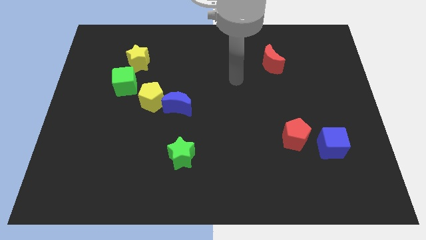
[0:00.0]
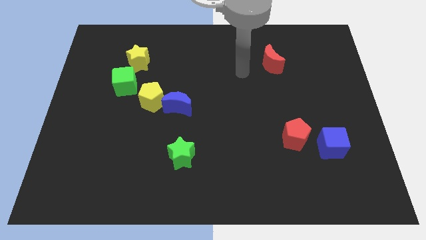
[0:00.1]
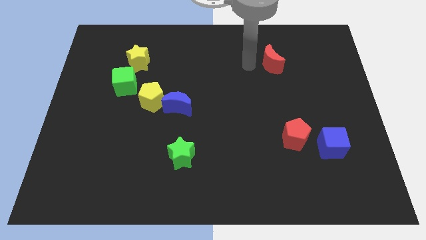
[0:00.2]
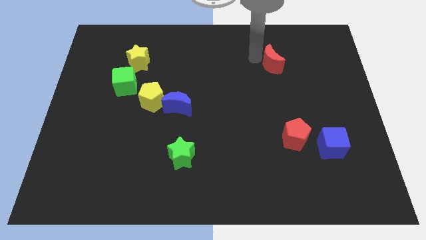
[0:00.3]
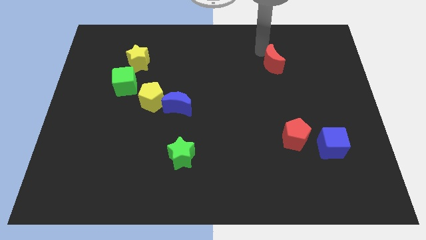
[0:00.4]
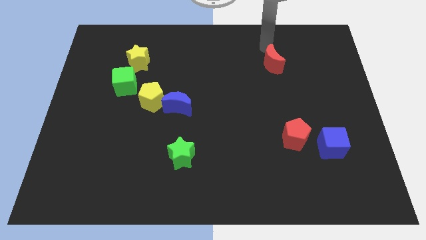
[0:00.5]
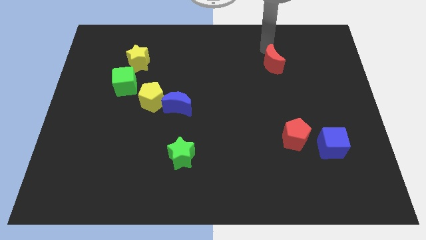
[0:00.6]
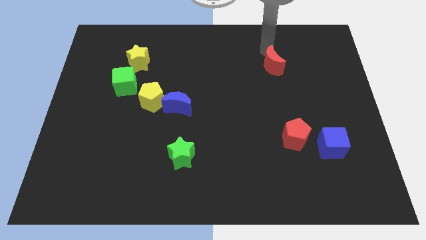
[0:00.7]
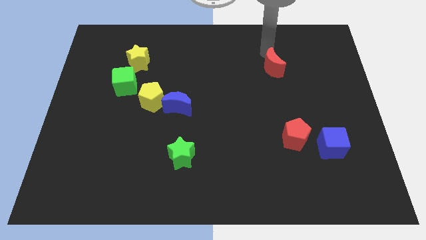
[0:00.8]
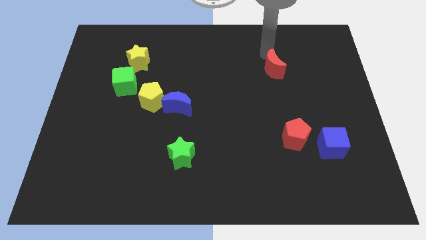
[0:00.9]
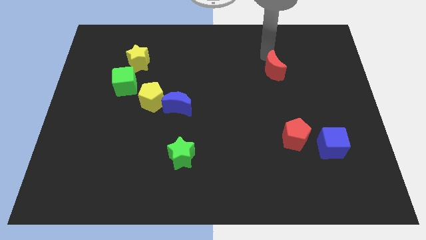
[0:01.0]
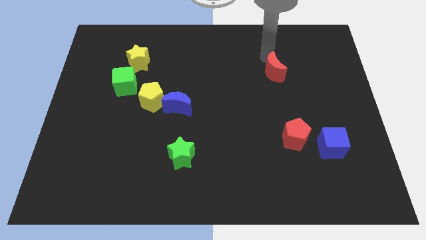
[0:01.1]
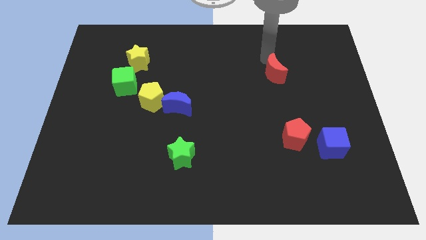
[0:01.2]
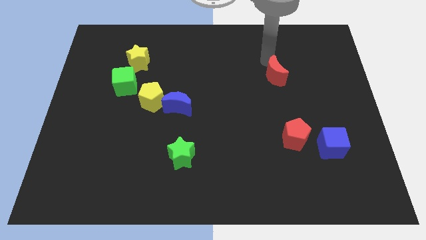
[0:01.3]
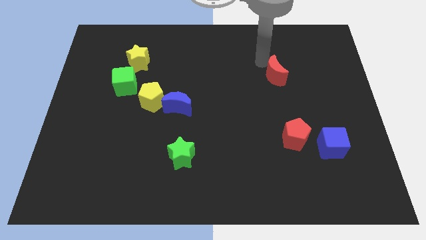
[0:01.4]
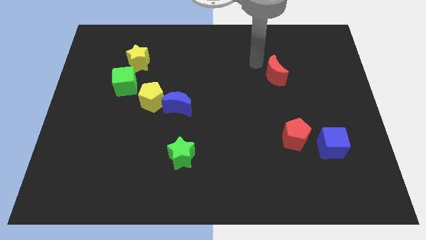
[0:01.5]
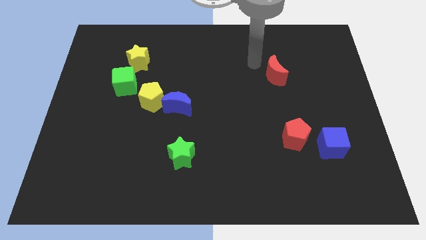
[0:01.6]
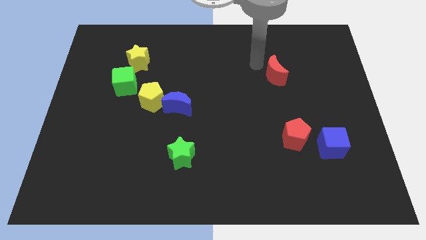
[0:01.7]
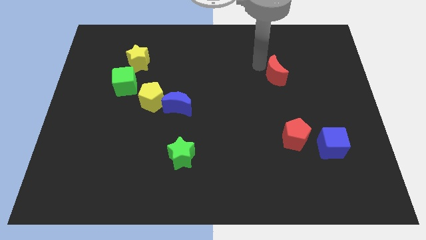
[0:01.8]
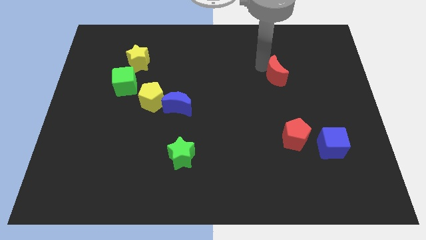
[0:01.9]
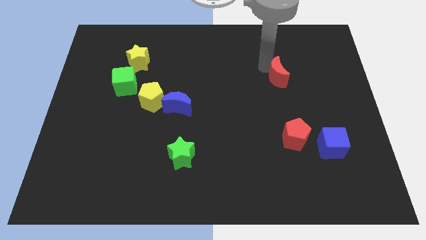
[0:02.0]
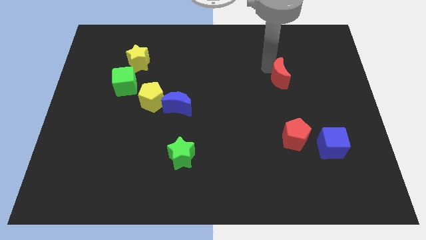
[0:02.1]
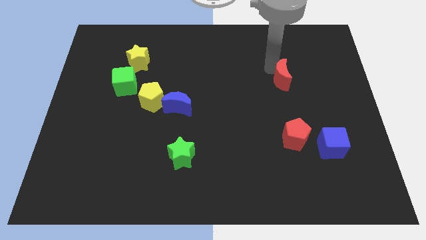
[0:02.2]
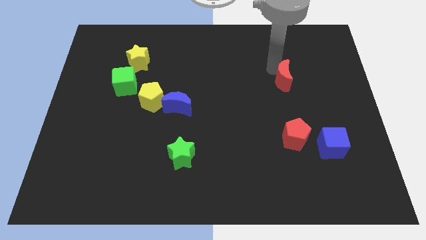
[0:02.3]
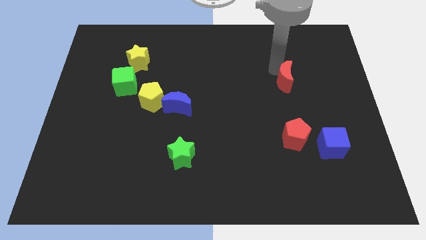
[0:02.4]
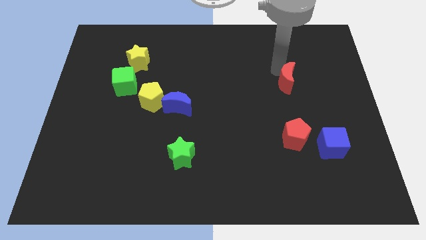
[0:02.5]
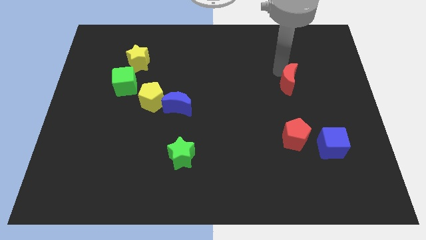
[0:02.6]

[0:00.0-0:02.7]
move the red moon down and then right a bit

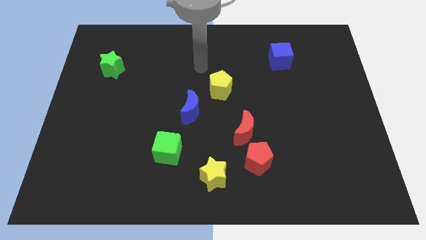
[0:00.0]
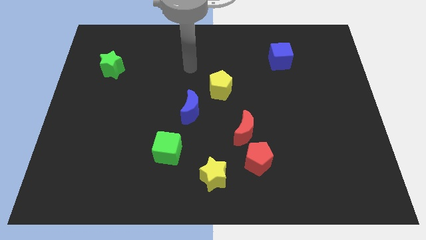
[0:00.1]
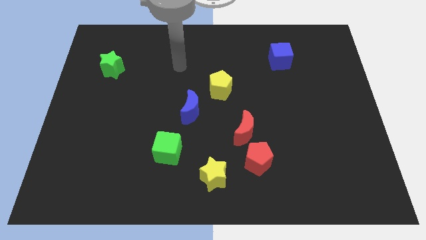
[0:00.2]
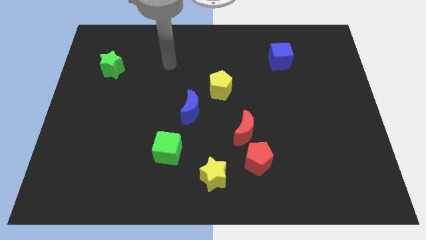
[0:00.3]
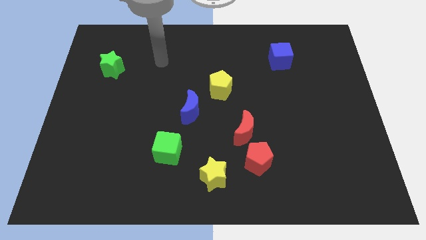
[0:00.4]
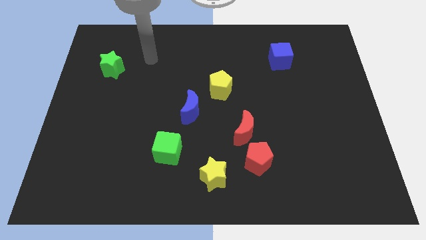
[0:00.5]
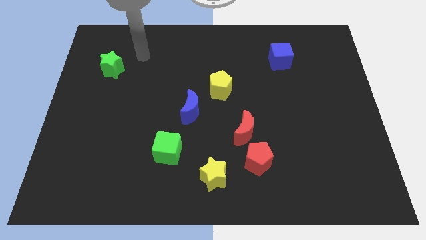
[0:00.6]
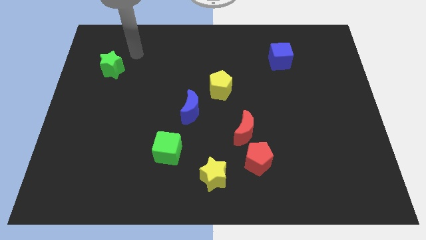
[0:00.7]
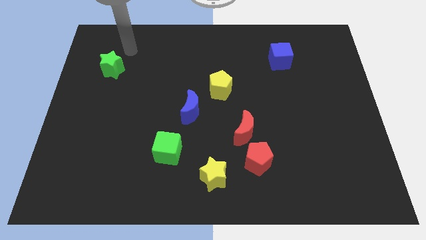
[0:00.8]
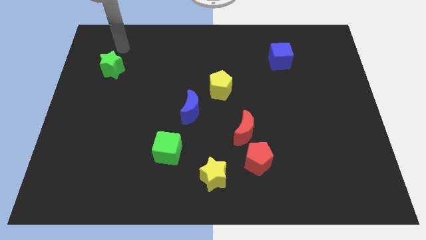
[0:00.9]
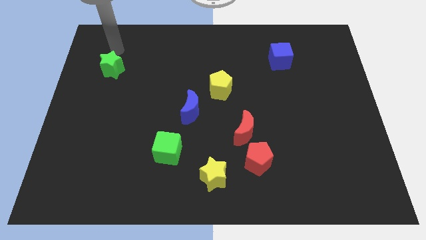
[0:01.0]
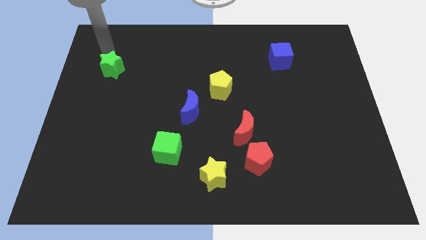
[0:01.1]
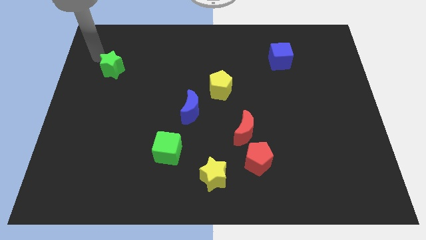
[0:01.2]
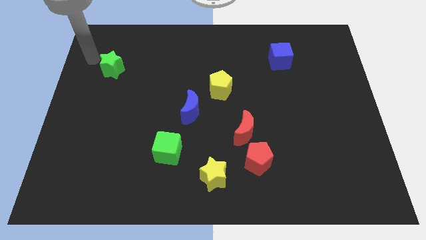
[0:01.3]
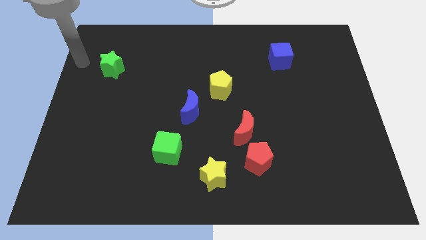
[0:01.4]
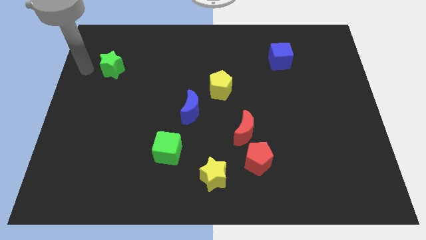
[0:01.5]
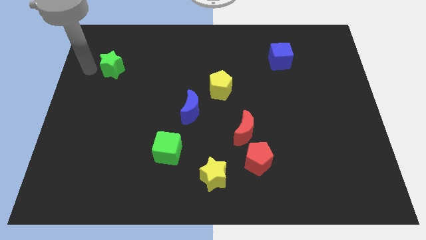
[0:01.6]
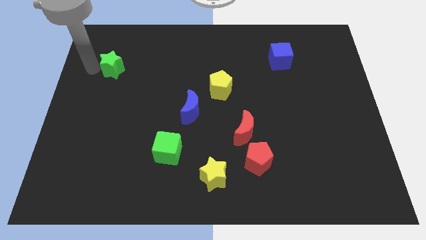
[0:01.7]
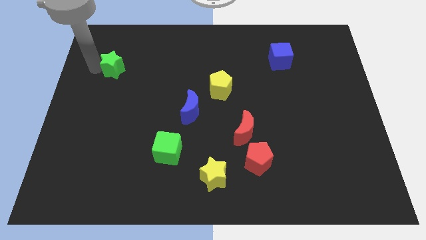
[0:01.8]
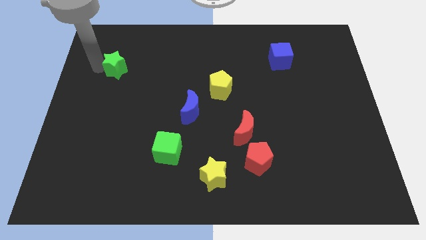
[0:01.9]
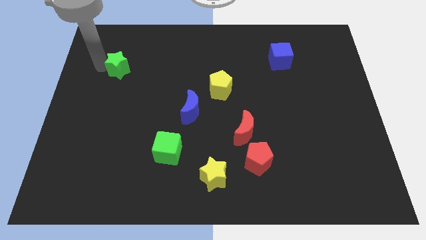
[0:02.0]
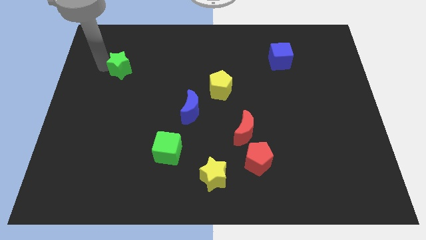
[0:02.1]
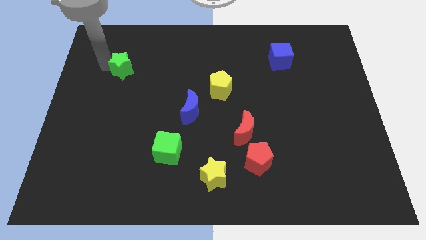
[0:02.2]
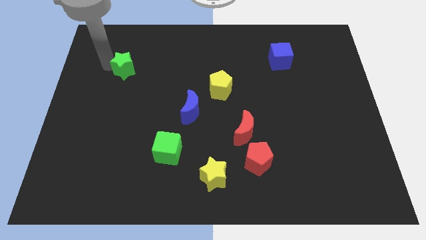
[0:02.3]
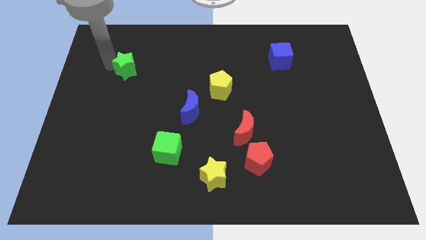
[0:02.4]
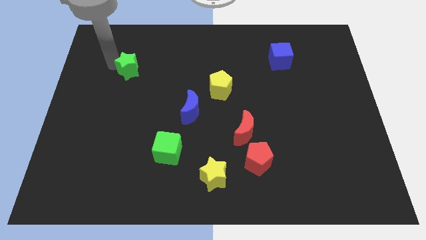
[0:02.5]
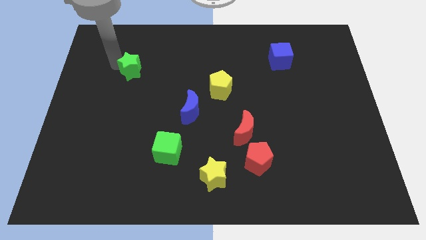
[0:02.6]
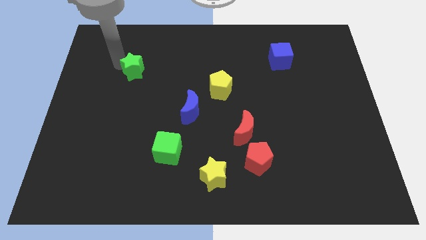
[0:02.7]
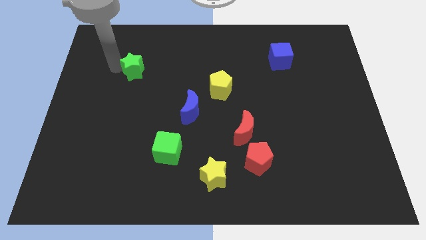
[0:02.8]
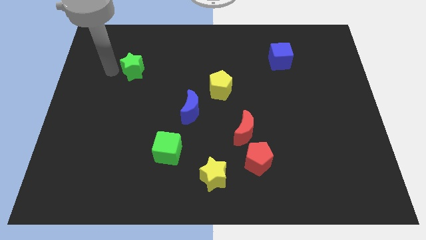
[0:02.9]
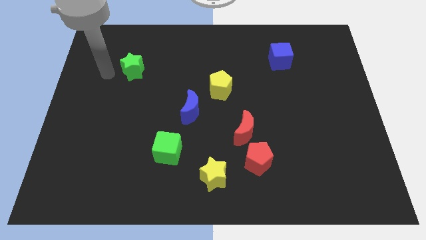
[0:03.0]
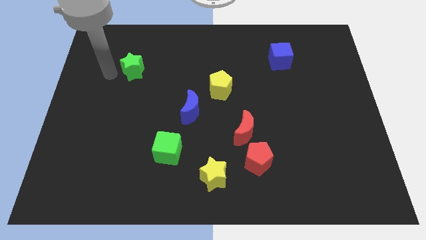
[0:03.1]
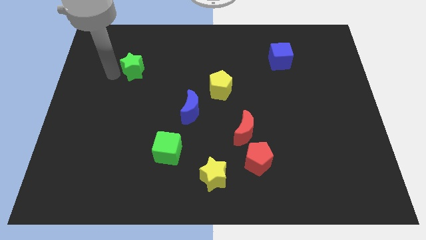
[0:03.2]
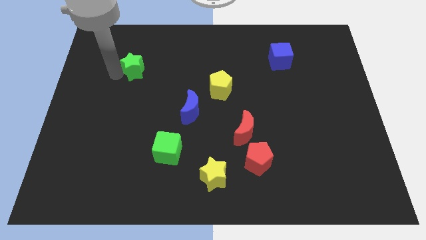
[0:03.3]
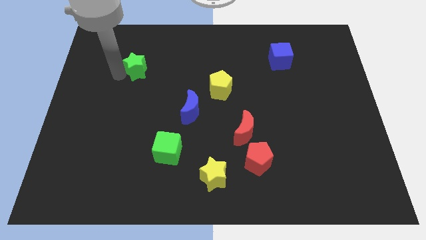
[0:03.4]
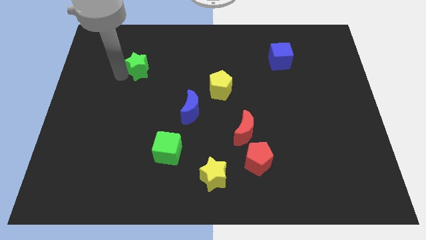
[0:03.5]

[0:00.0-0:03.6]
slide the green star a bit right

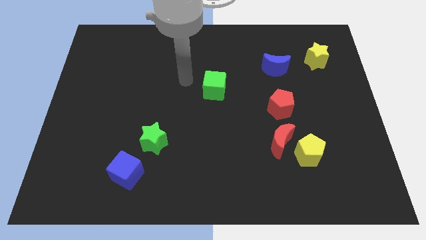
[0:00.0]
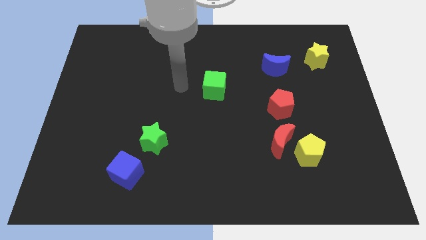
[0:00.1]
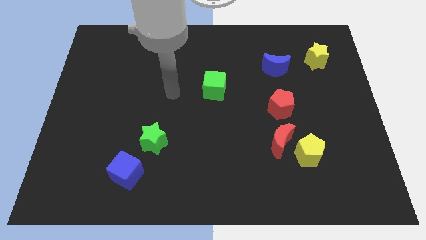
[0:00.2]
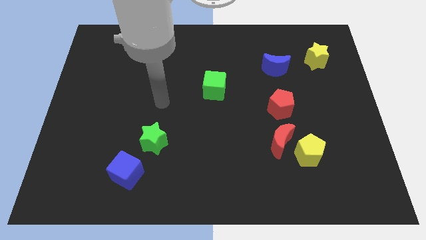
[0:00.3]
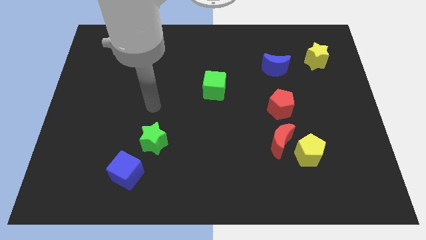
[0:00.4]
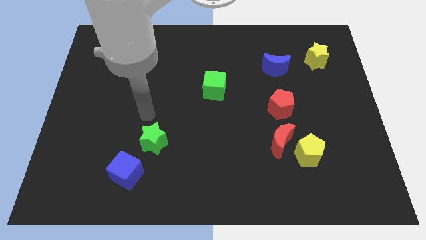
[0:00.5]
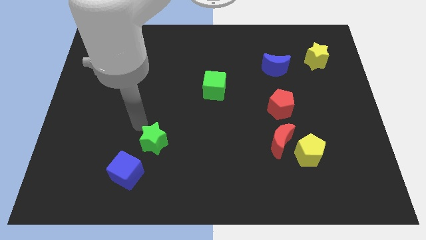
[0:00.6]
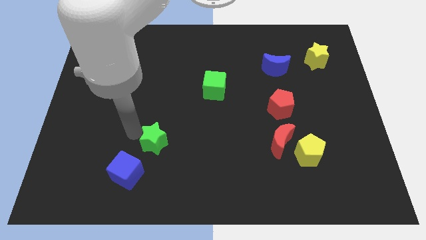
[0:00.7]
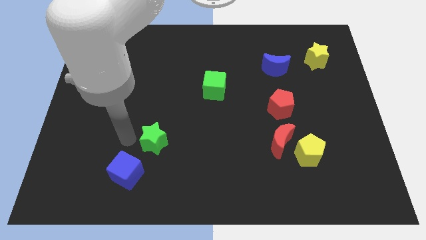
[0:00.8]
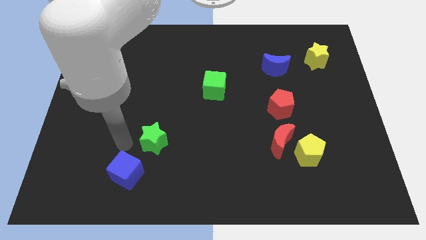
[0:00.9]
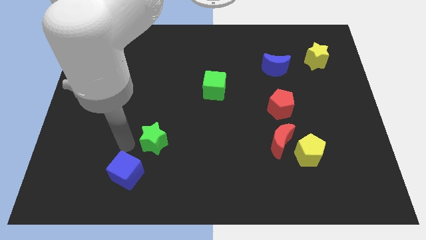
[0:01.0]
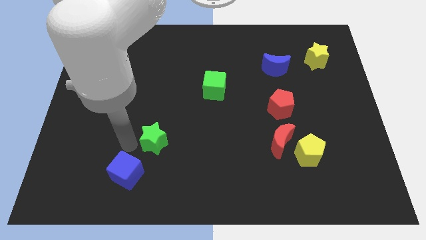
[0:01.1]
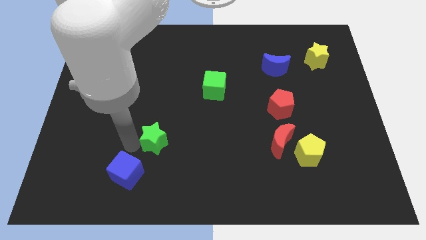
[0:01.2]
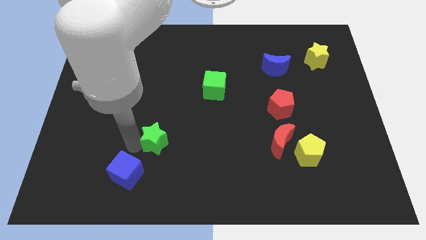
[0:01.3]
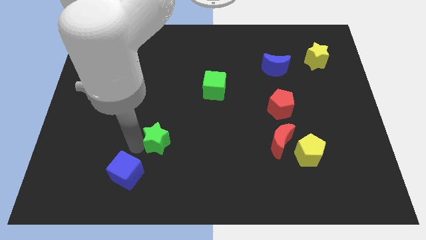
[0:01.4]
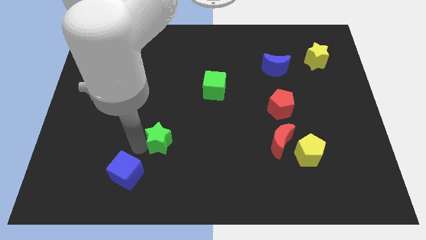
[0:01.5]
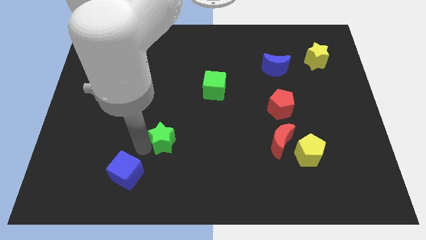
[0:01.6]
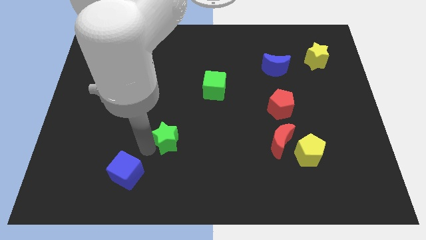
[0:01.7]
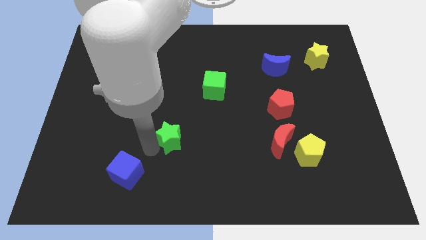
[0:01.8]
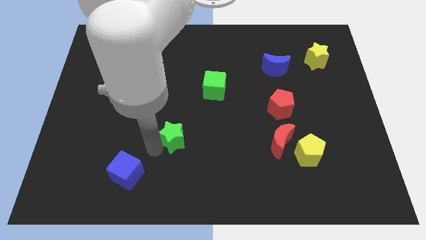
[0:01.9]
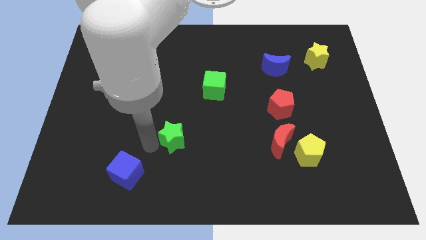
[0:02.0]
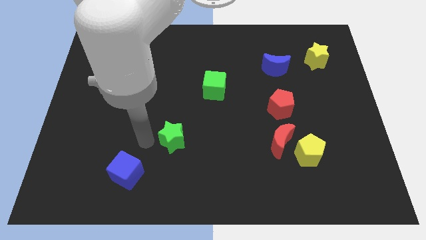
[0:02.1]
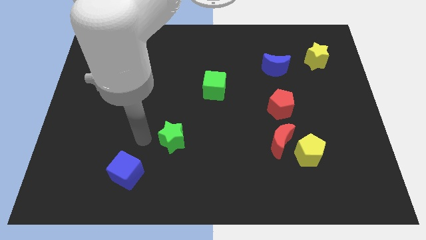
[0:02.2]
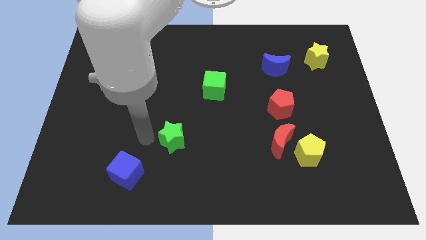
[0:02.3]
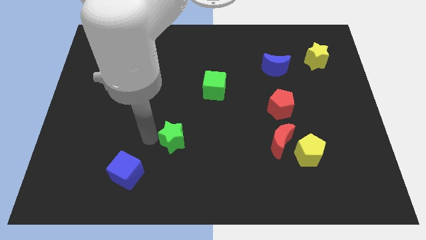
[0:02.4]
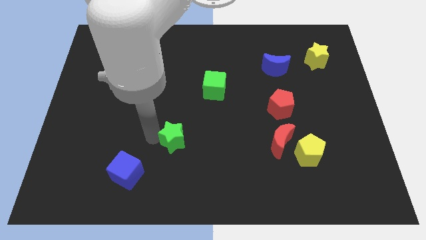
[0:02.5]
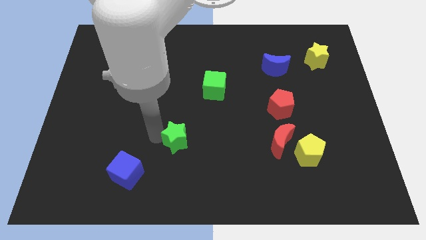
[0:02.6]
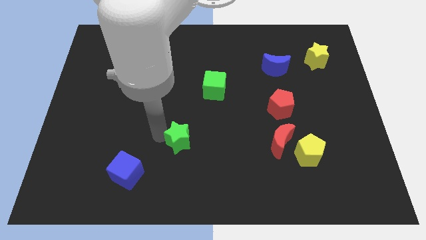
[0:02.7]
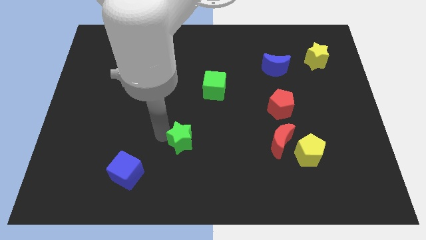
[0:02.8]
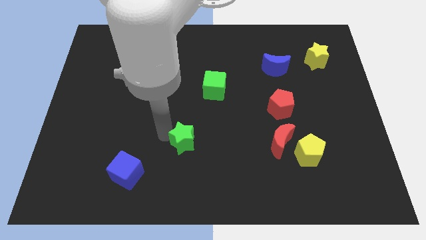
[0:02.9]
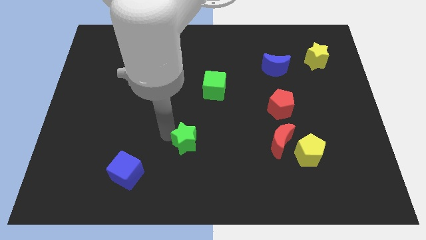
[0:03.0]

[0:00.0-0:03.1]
slightly push the green star right
